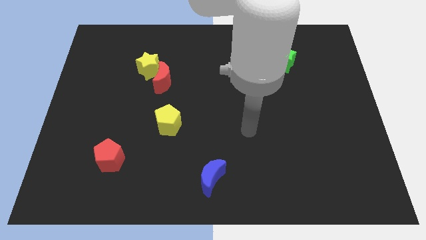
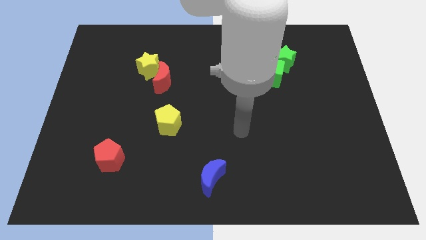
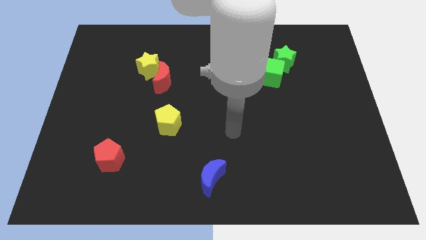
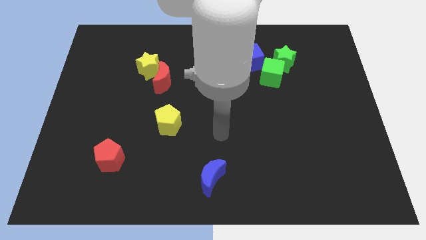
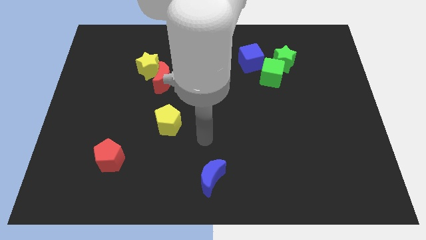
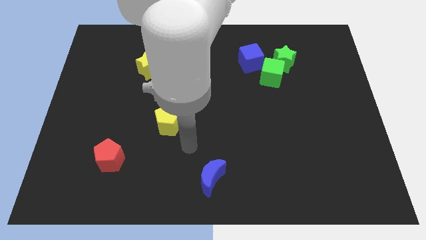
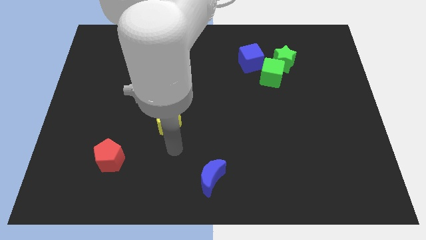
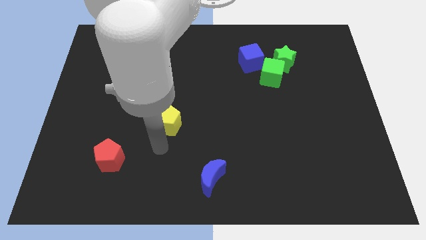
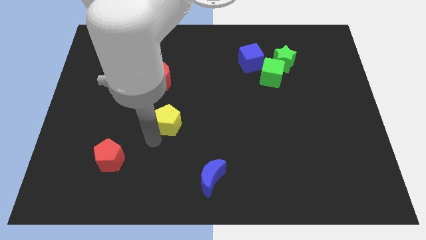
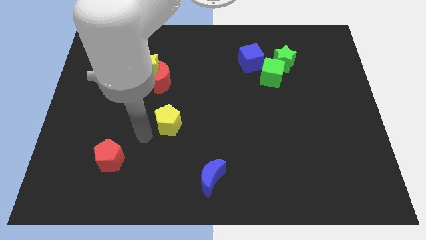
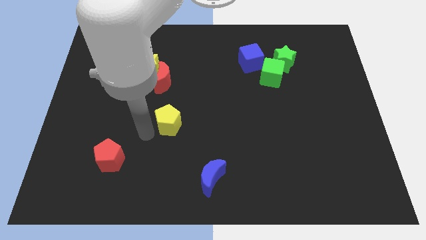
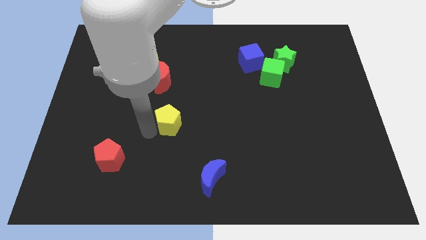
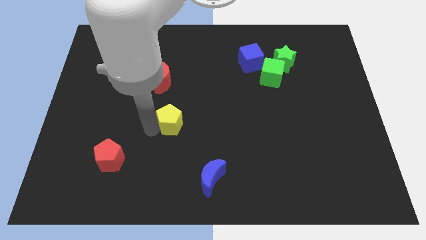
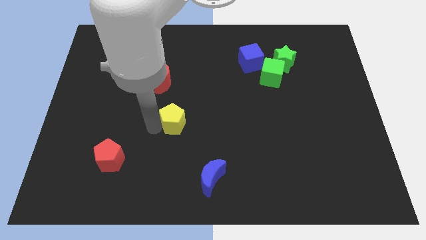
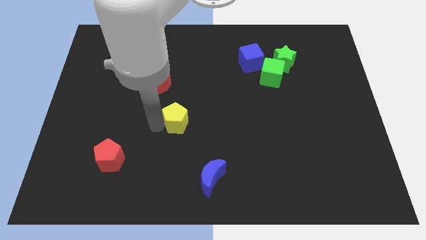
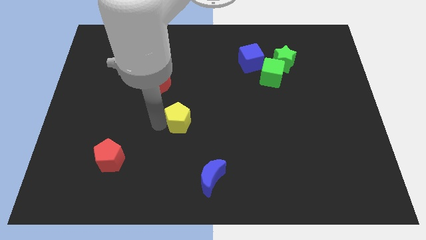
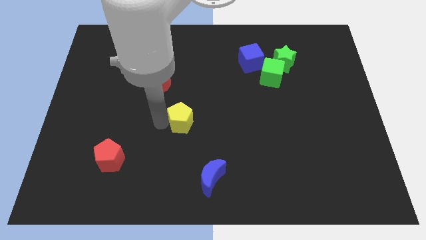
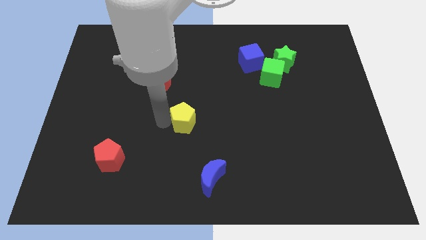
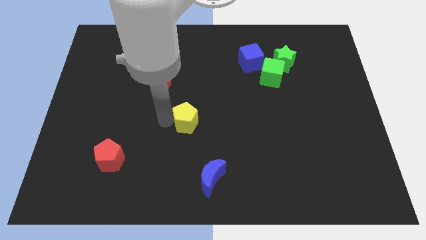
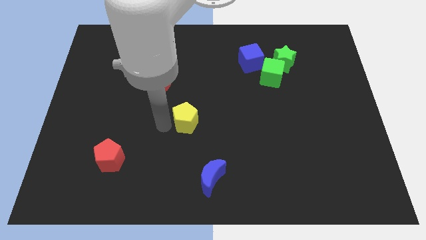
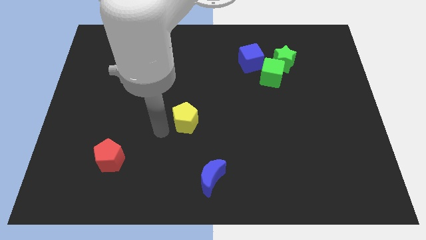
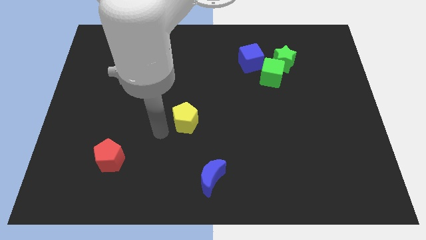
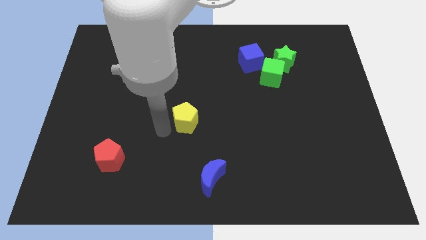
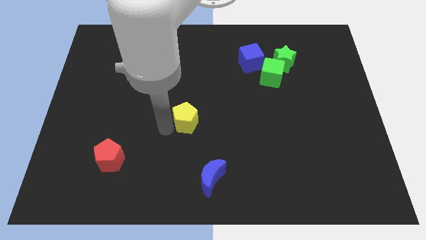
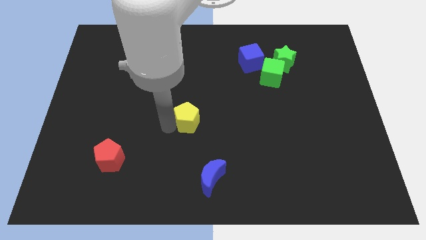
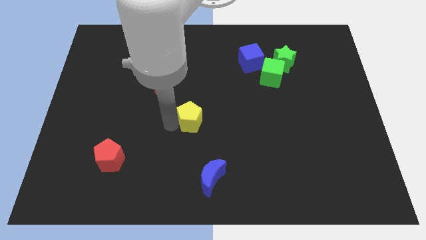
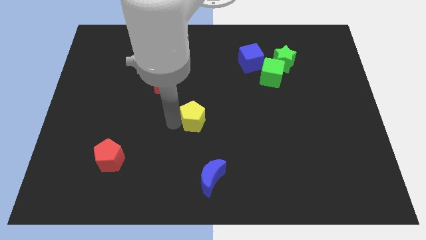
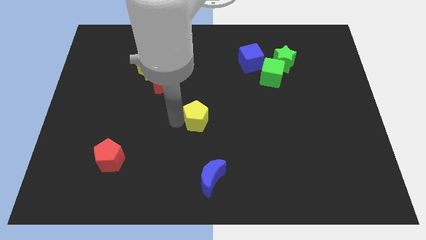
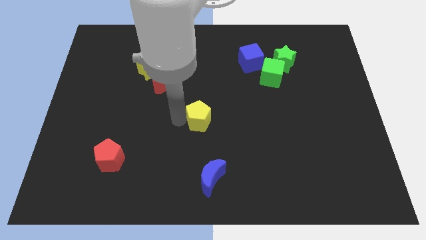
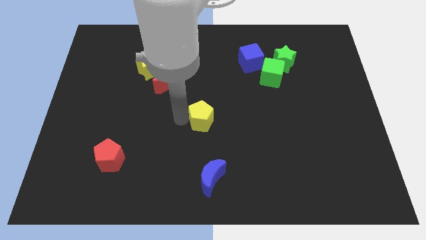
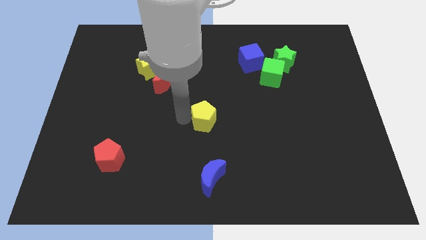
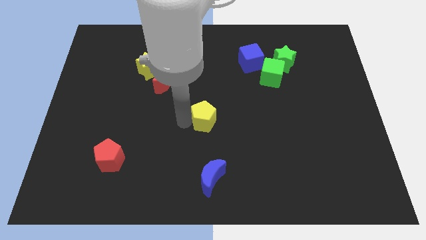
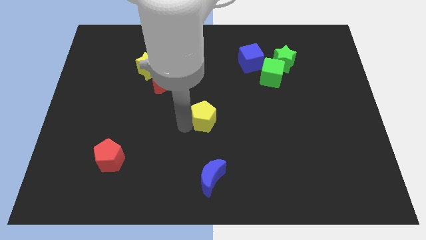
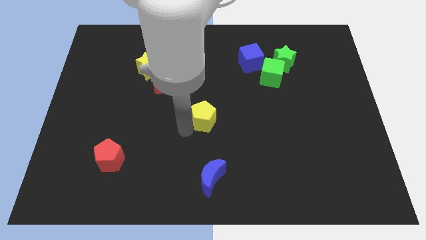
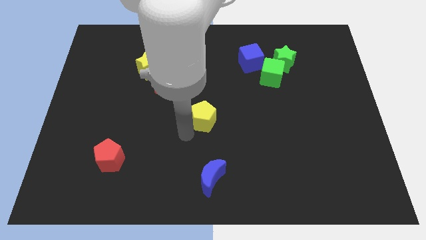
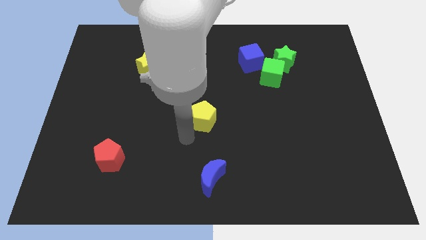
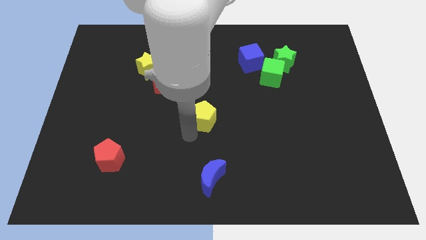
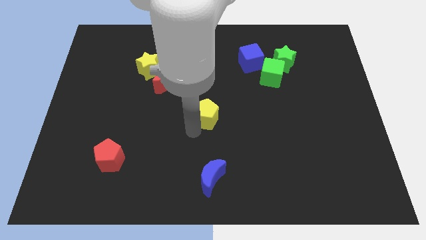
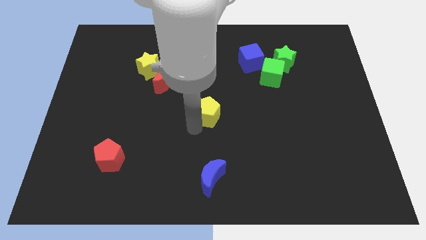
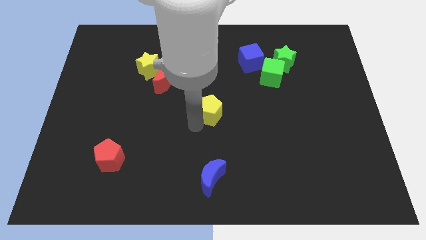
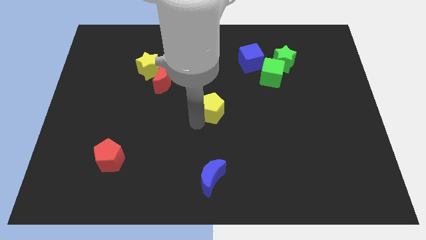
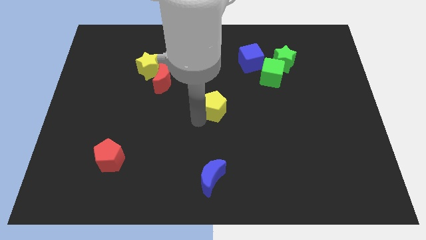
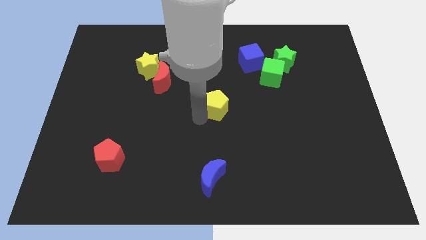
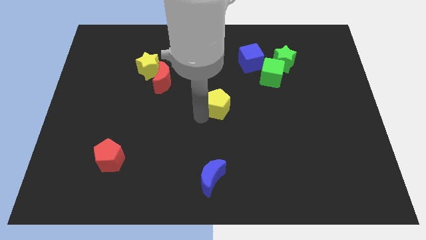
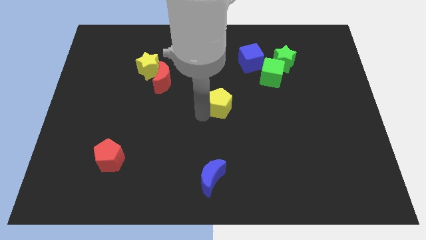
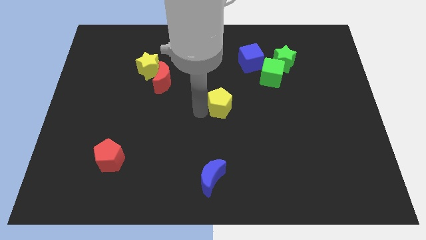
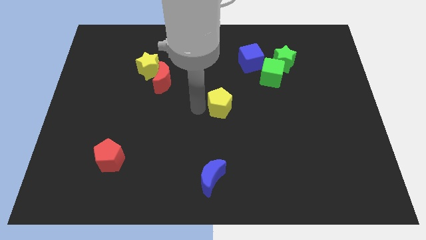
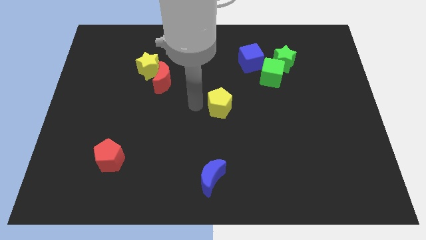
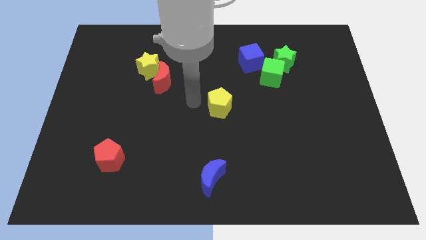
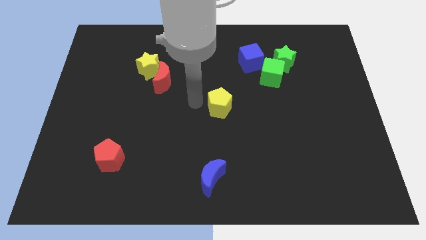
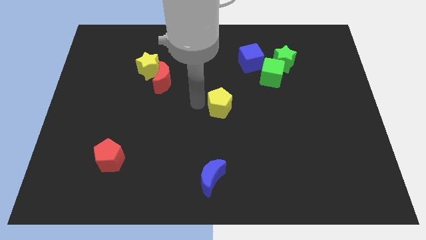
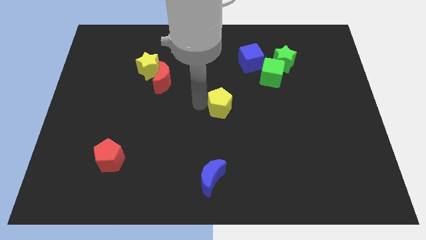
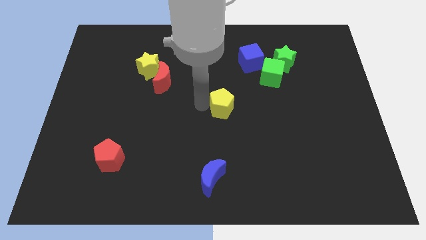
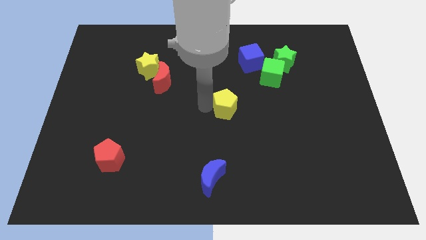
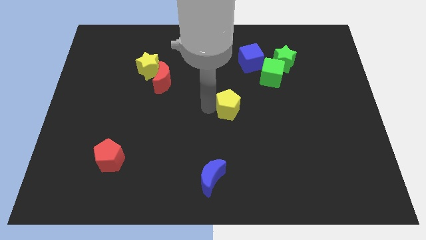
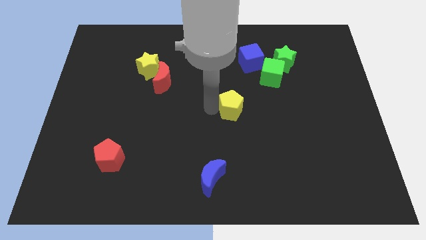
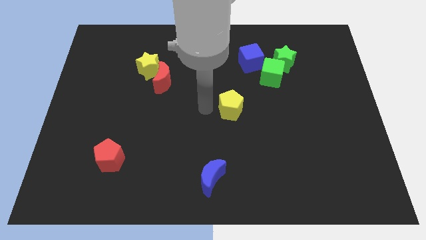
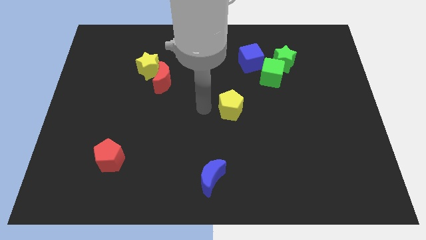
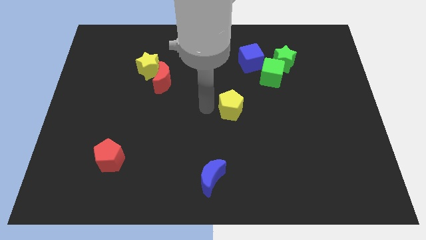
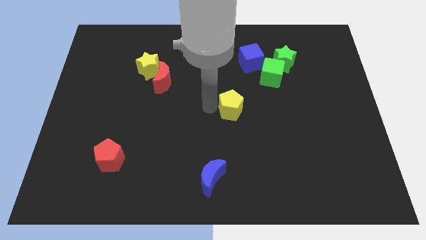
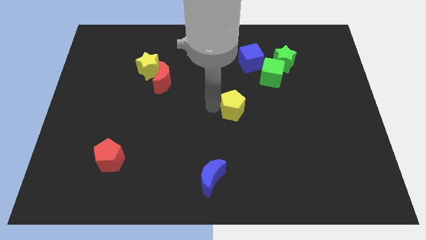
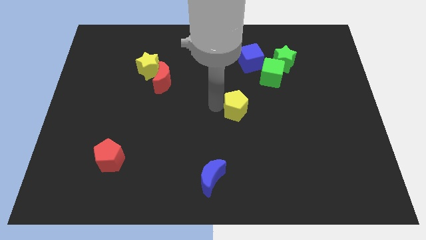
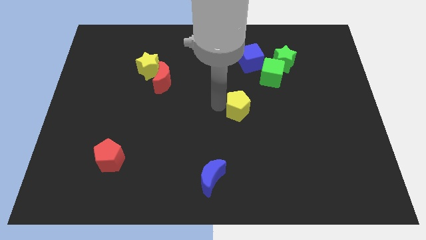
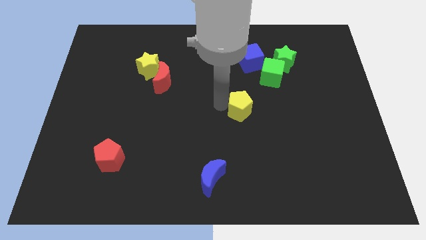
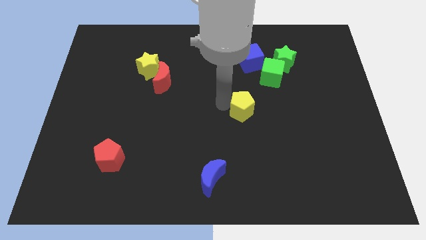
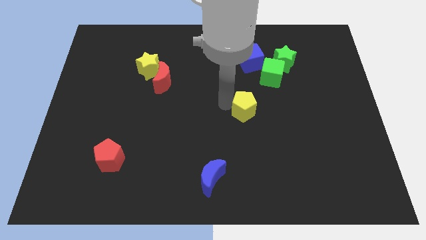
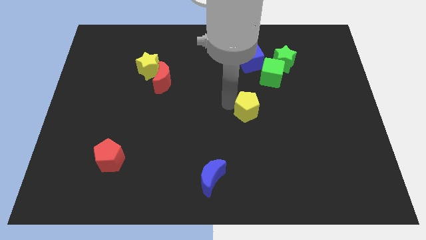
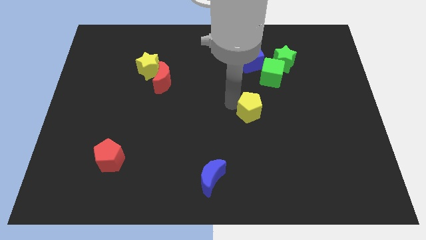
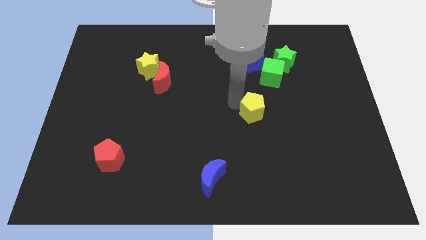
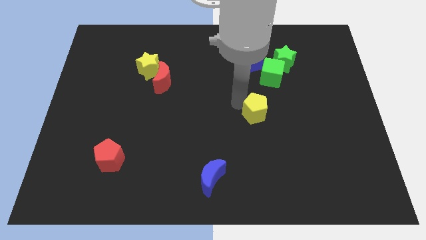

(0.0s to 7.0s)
move the yellow pentagon to the bottom side of the green cube

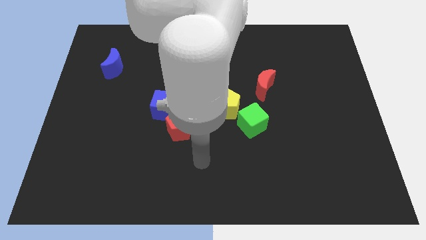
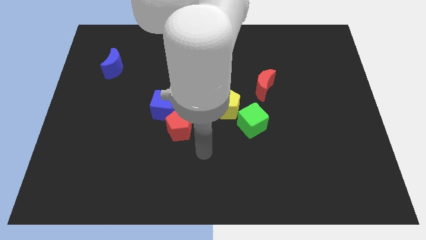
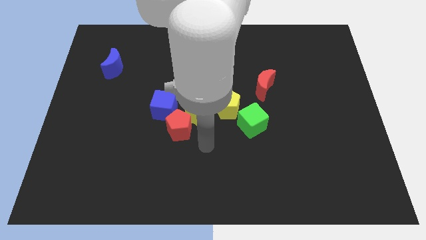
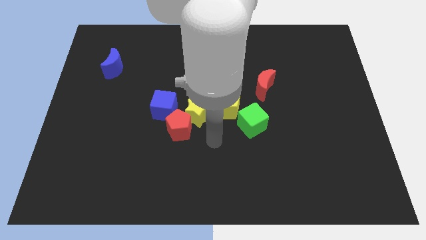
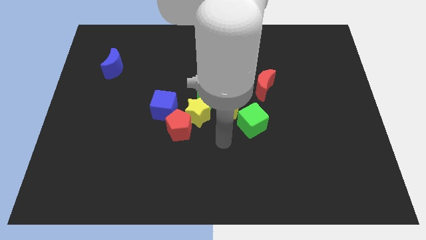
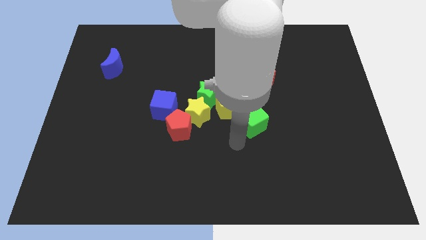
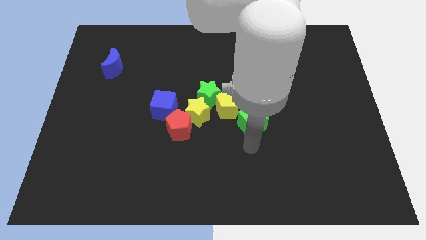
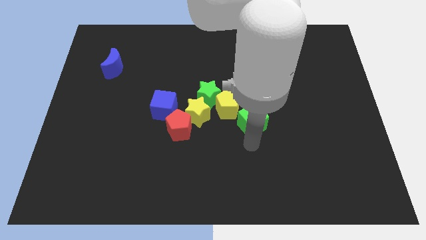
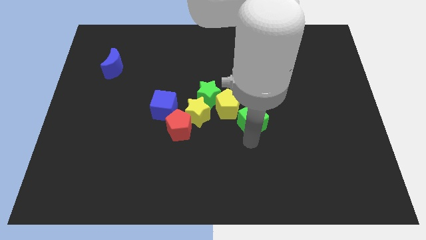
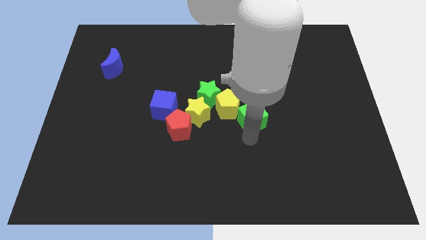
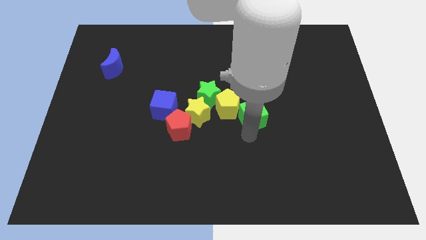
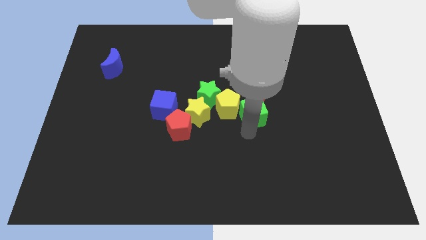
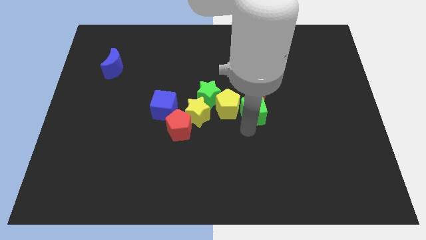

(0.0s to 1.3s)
slide the green cube just right of the green star
